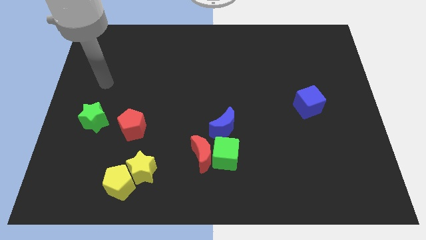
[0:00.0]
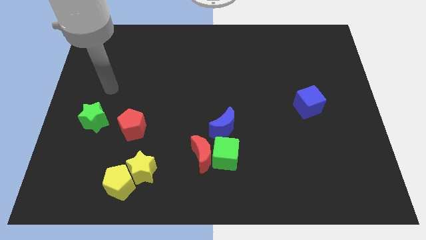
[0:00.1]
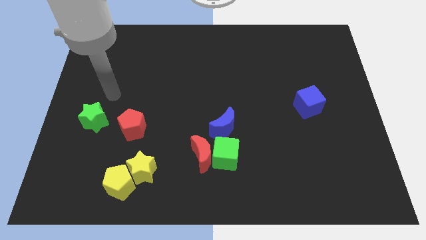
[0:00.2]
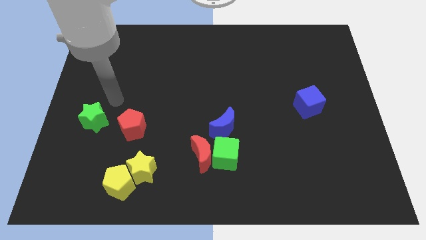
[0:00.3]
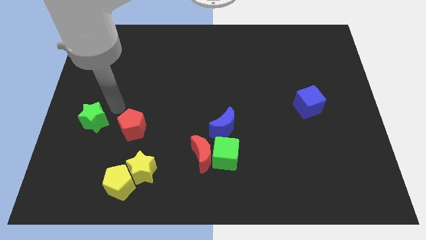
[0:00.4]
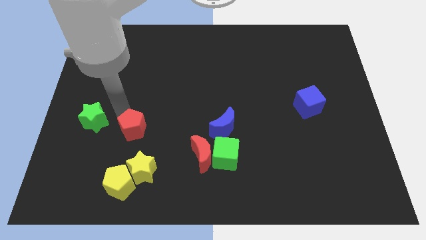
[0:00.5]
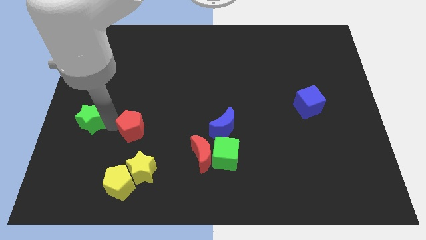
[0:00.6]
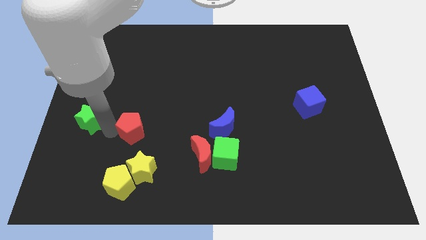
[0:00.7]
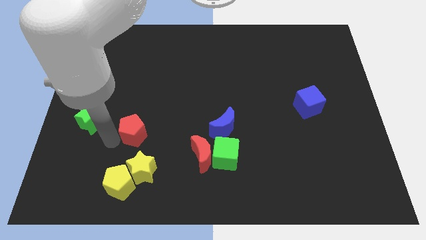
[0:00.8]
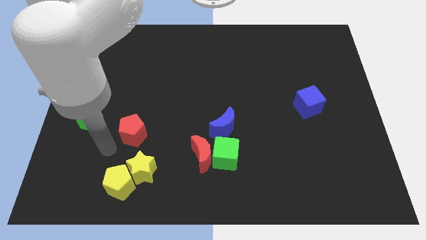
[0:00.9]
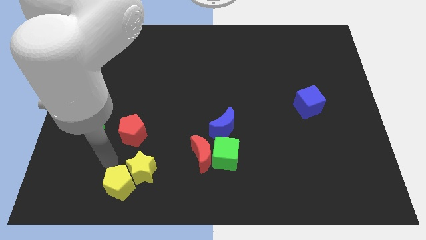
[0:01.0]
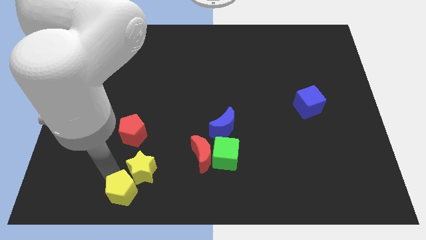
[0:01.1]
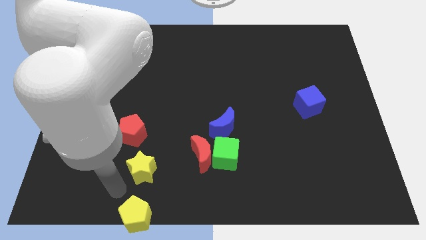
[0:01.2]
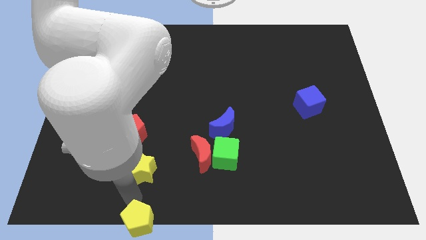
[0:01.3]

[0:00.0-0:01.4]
separate the yellow star from the yellow pentagon

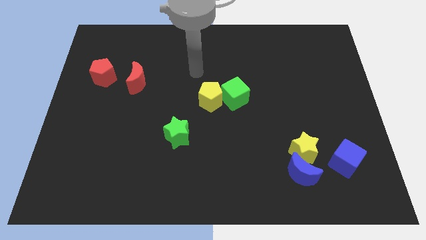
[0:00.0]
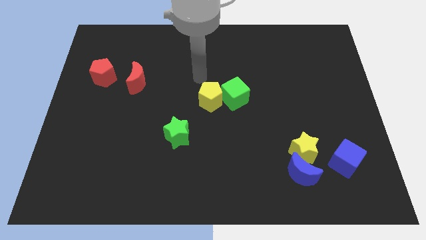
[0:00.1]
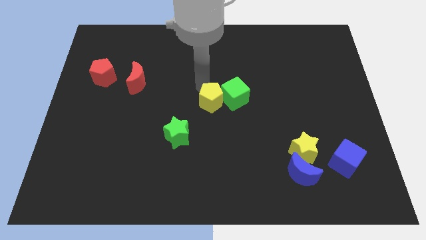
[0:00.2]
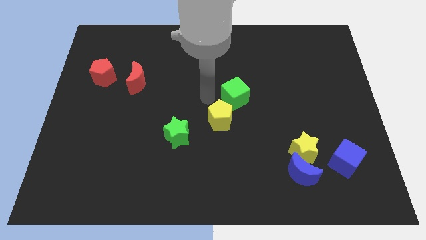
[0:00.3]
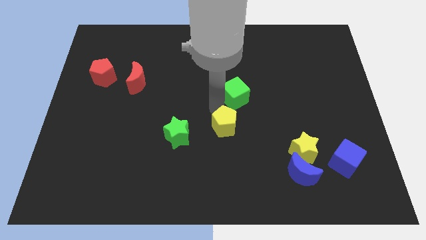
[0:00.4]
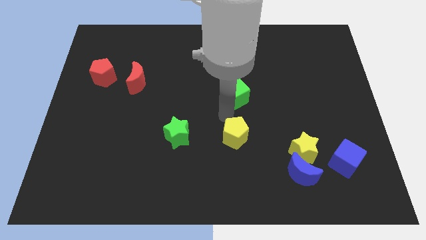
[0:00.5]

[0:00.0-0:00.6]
pull the green cube apart from the yellow pentagon

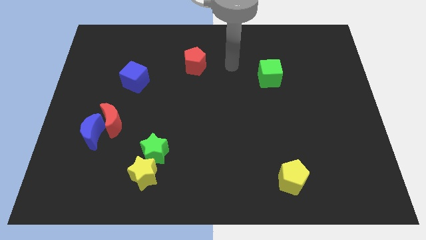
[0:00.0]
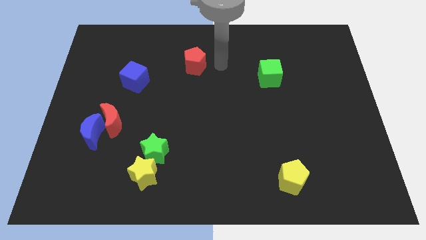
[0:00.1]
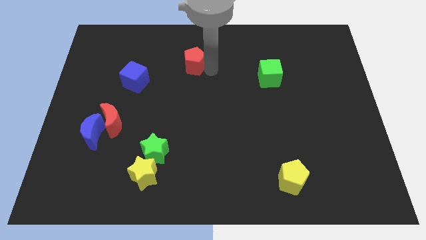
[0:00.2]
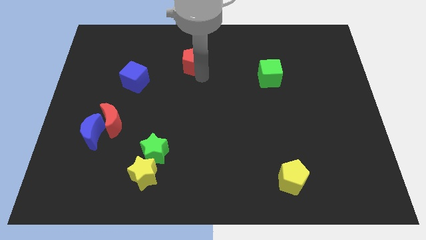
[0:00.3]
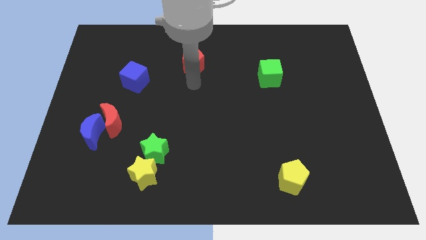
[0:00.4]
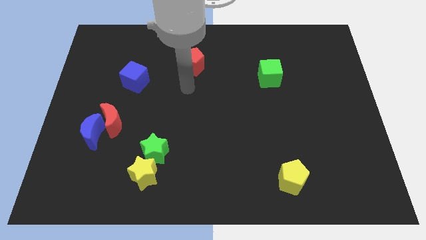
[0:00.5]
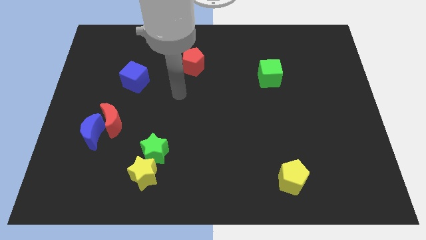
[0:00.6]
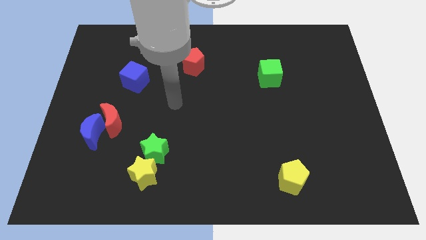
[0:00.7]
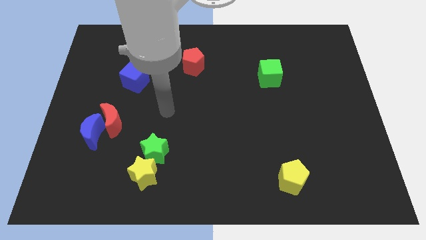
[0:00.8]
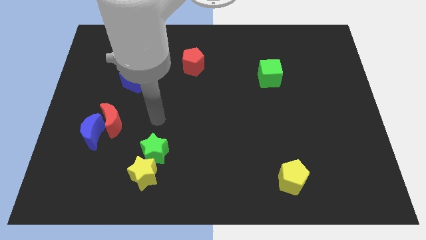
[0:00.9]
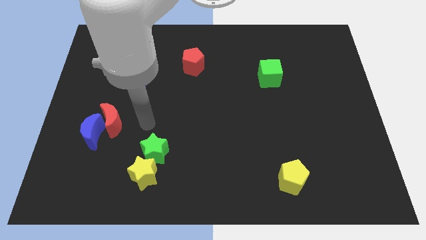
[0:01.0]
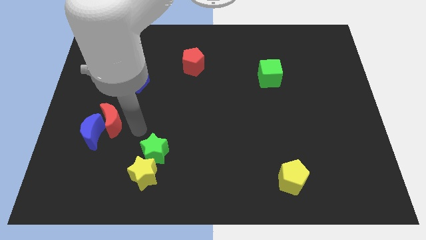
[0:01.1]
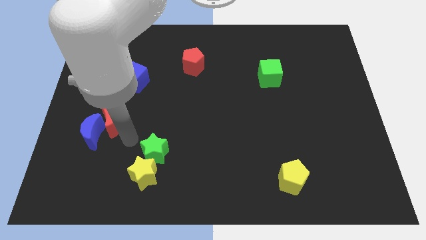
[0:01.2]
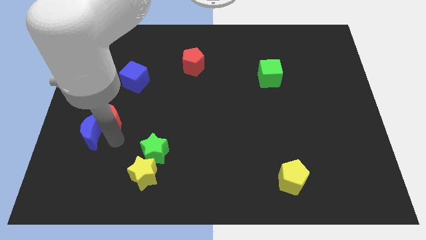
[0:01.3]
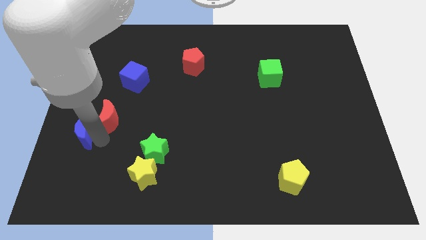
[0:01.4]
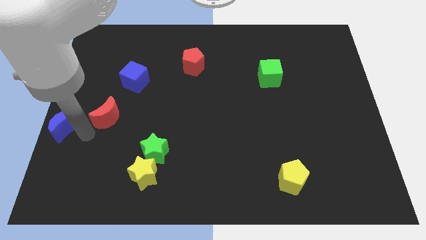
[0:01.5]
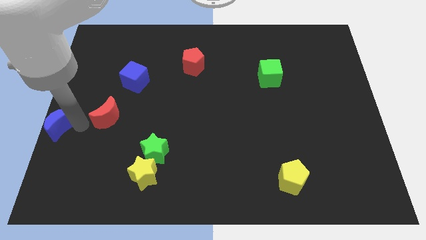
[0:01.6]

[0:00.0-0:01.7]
pull the red moon apart from the blue moon

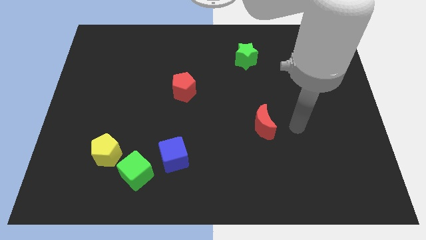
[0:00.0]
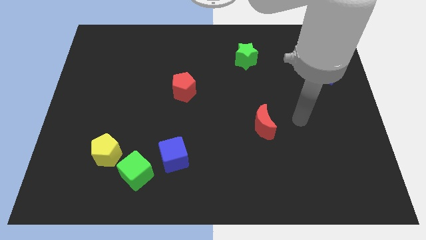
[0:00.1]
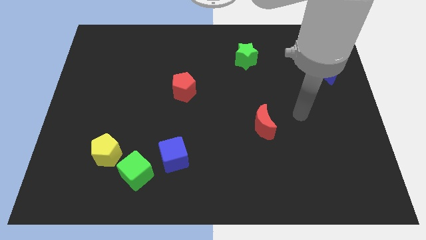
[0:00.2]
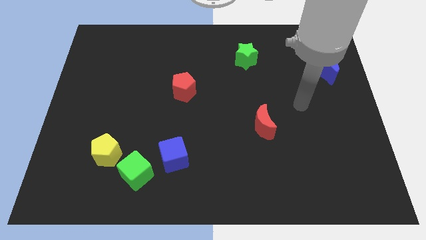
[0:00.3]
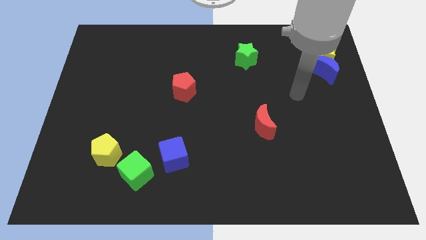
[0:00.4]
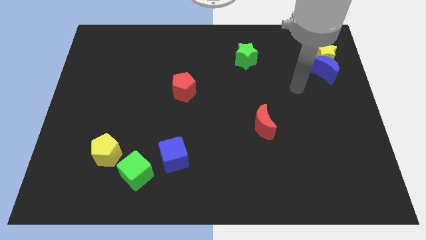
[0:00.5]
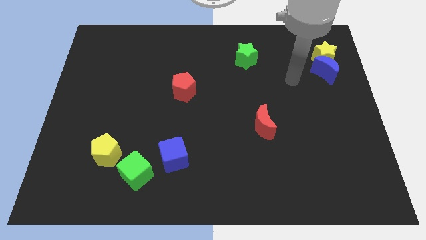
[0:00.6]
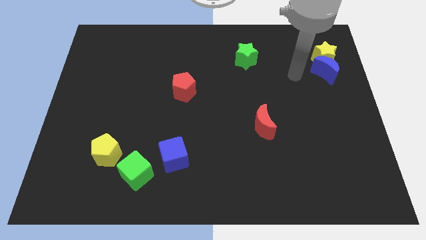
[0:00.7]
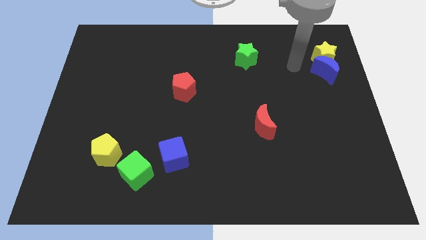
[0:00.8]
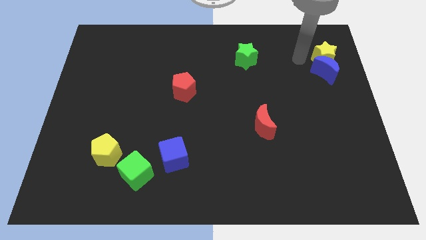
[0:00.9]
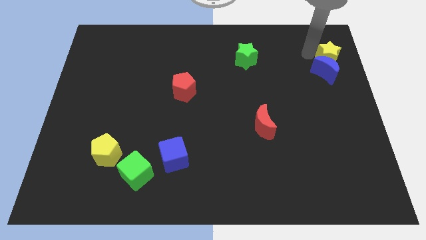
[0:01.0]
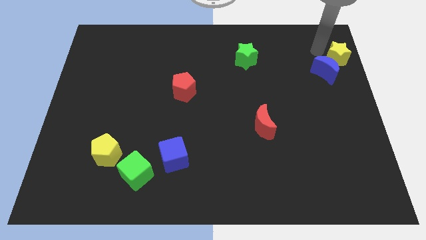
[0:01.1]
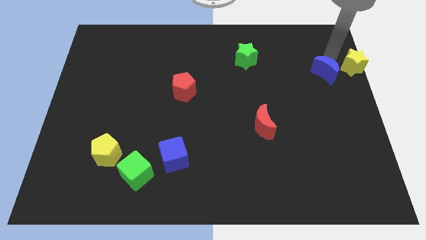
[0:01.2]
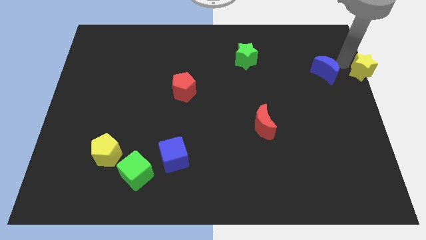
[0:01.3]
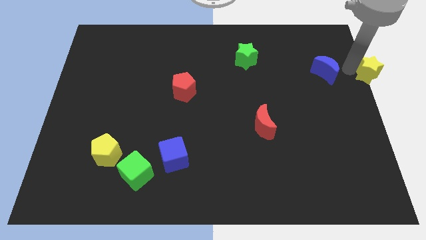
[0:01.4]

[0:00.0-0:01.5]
separate the blue moon from the yellow star

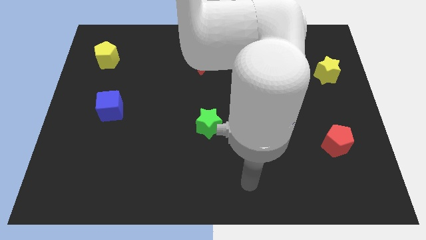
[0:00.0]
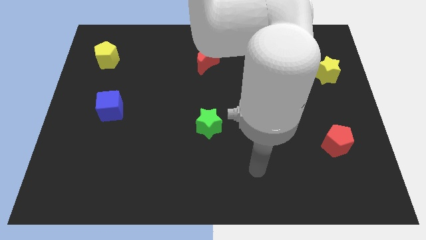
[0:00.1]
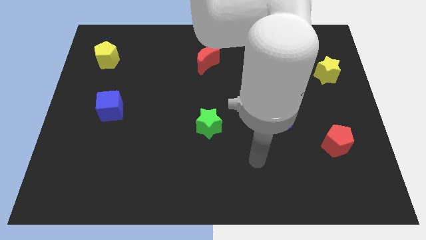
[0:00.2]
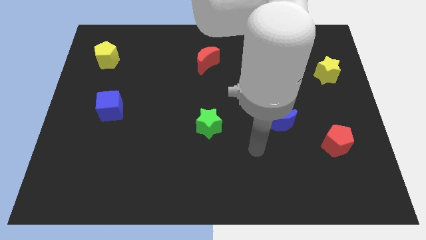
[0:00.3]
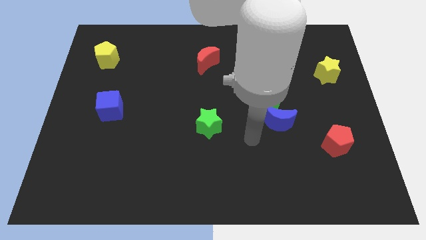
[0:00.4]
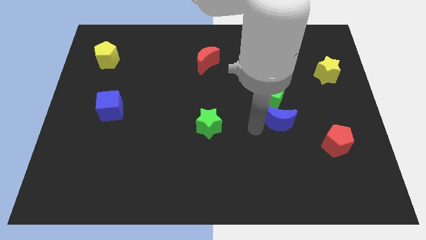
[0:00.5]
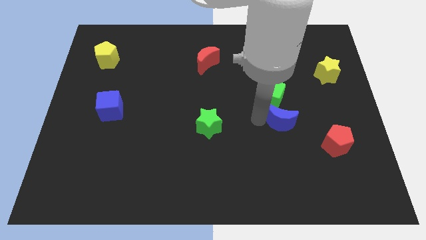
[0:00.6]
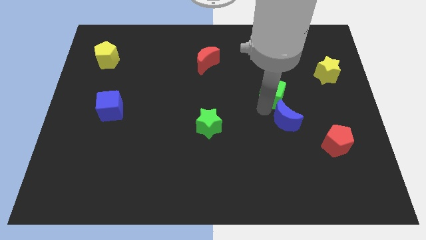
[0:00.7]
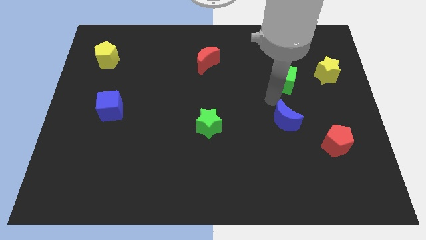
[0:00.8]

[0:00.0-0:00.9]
move the blue moon away from the green cube

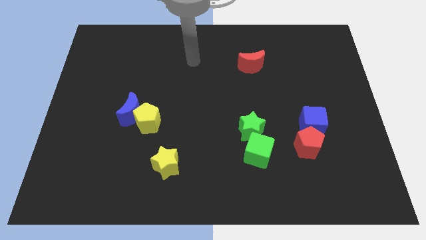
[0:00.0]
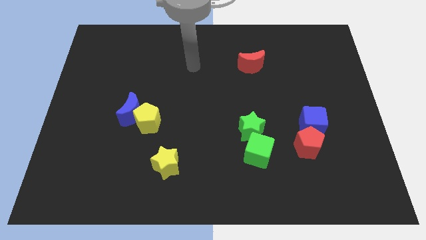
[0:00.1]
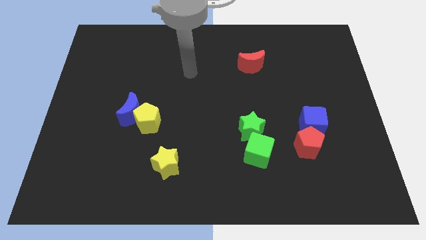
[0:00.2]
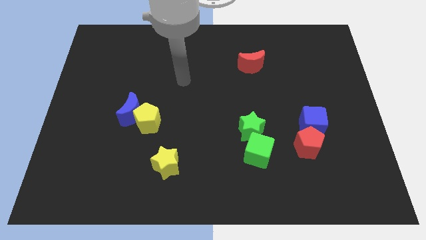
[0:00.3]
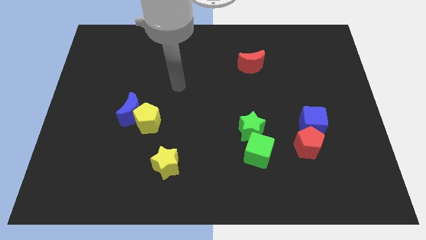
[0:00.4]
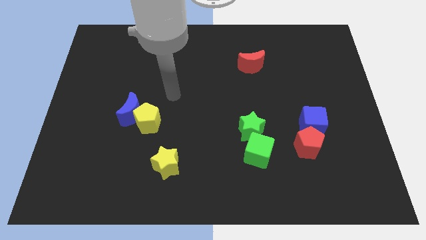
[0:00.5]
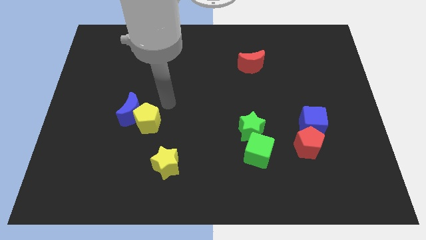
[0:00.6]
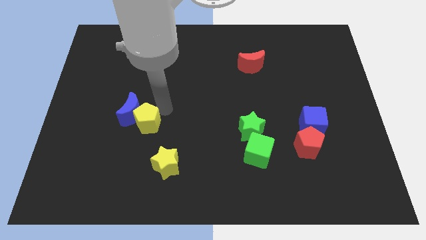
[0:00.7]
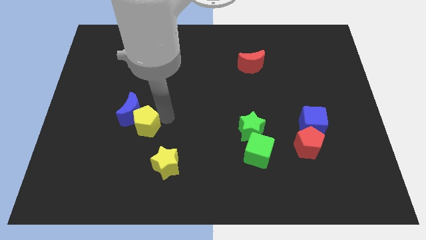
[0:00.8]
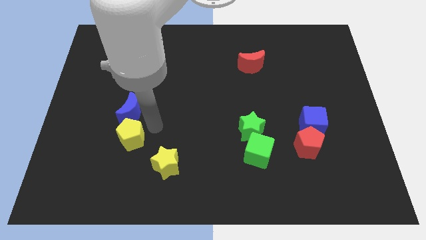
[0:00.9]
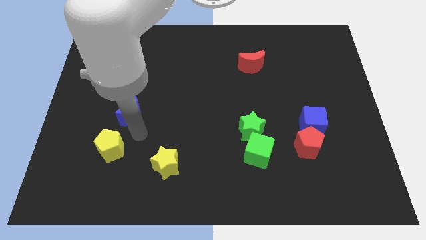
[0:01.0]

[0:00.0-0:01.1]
separate the blue moon from the yellow pentagon

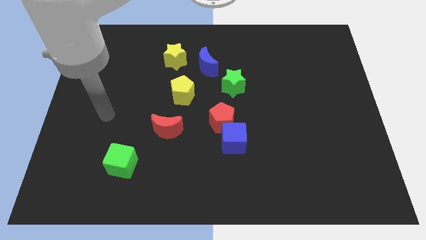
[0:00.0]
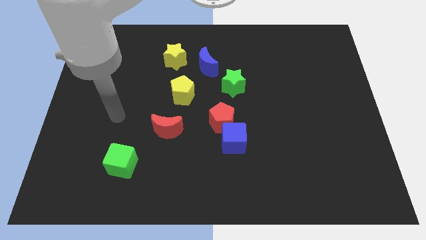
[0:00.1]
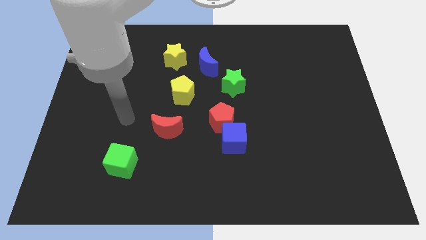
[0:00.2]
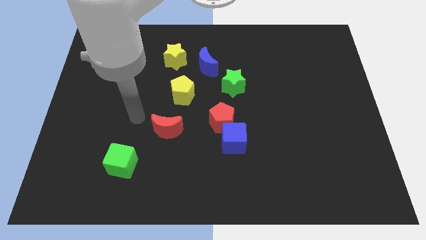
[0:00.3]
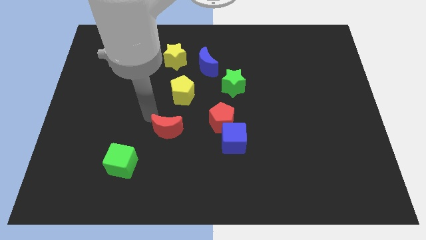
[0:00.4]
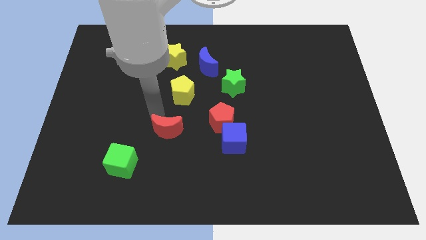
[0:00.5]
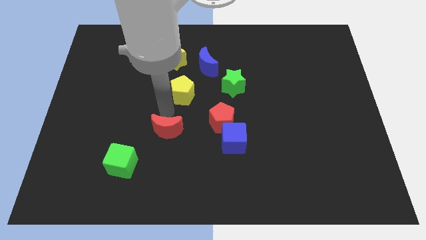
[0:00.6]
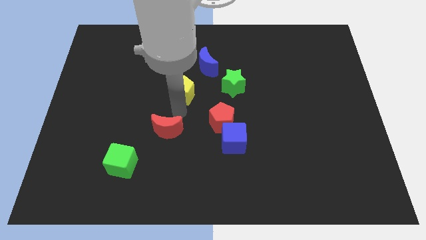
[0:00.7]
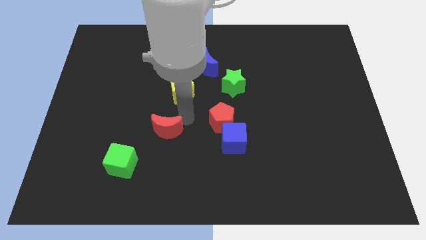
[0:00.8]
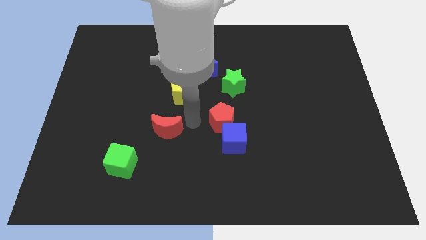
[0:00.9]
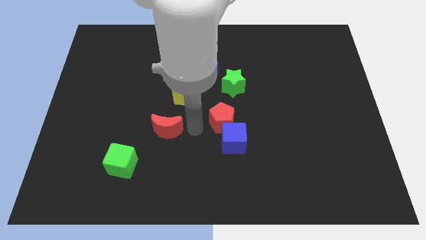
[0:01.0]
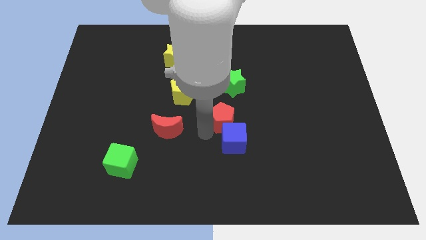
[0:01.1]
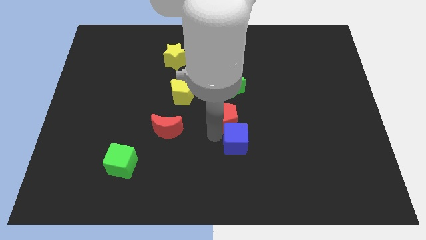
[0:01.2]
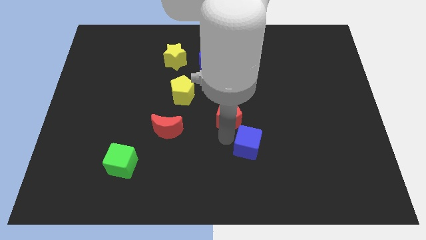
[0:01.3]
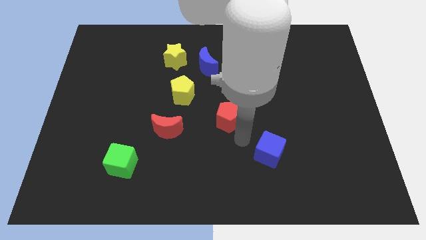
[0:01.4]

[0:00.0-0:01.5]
pull the red pentagon apart from the blue cube

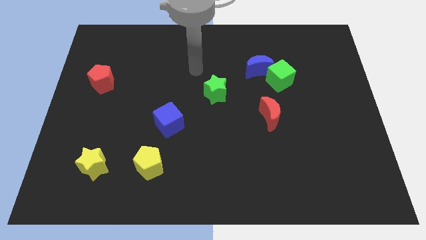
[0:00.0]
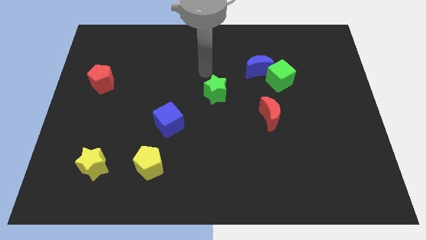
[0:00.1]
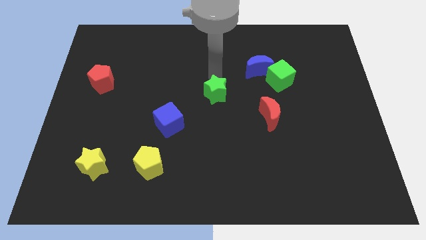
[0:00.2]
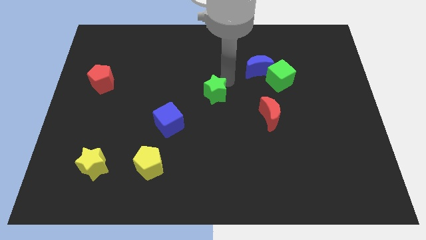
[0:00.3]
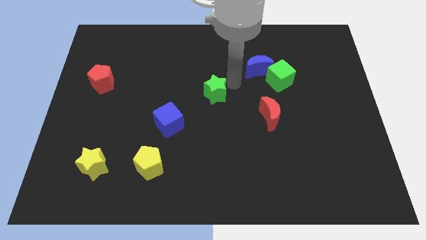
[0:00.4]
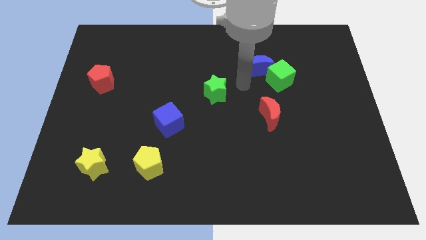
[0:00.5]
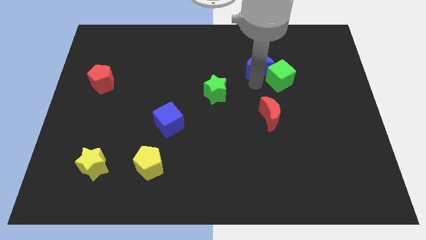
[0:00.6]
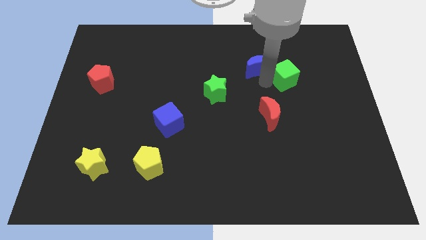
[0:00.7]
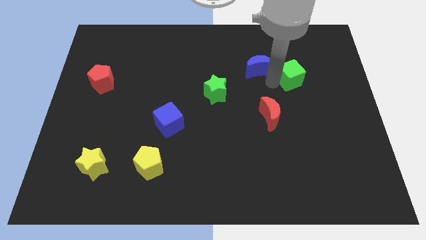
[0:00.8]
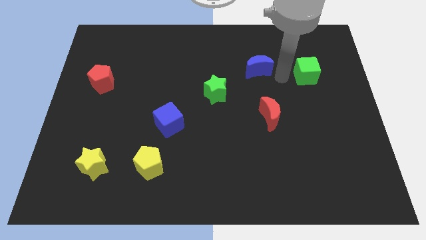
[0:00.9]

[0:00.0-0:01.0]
pull the blue moon apart from the green cube
